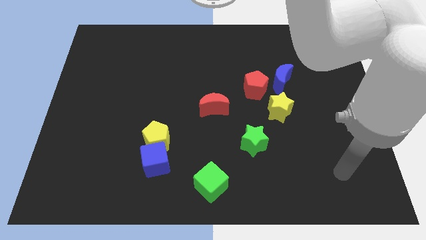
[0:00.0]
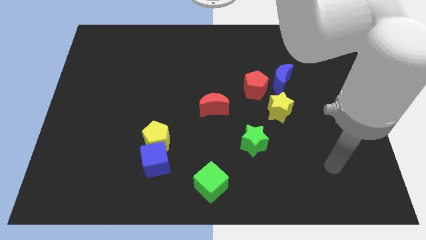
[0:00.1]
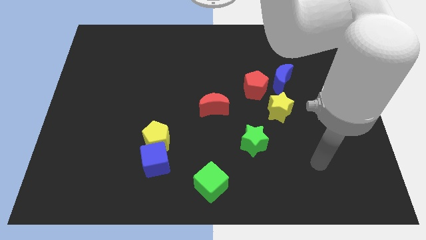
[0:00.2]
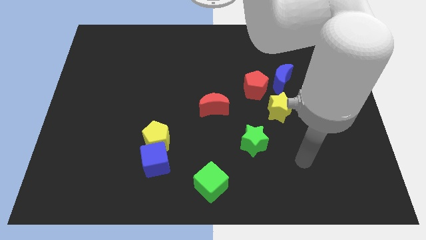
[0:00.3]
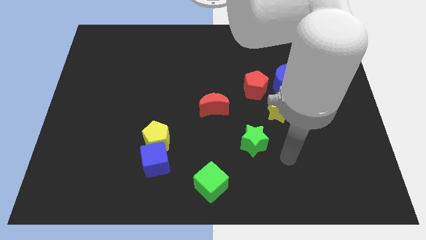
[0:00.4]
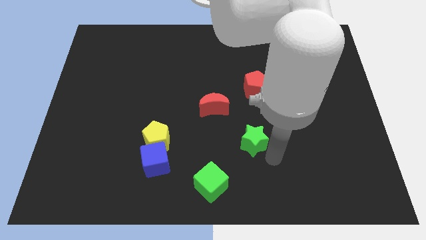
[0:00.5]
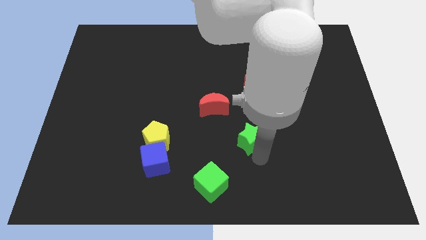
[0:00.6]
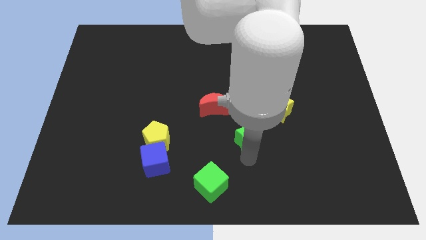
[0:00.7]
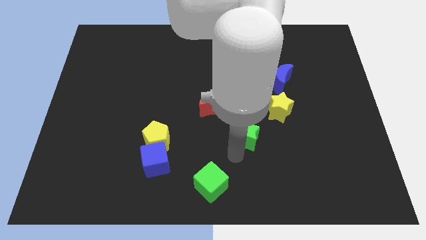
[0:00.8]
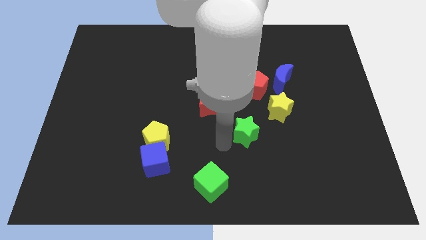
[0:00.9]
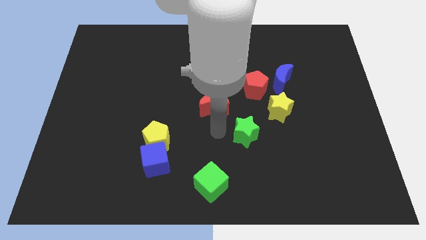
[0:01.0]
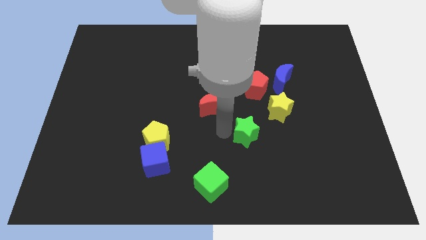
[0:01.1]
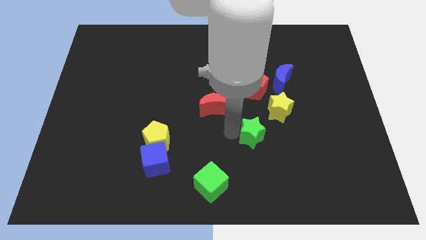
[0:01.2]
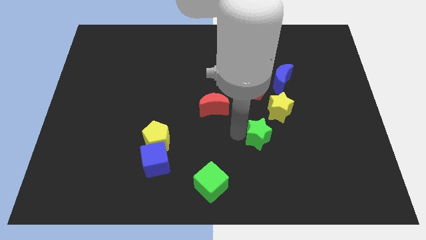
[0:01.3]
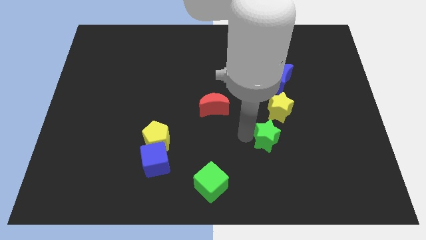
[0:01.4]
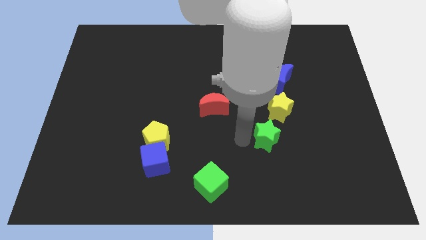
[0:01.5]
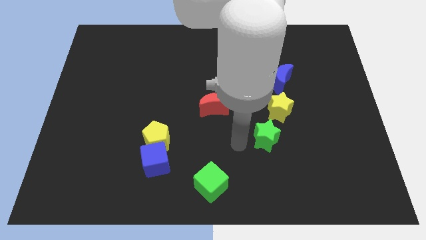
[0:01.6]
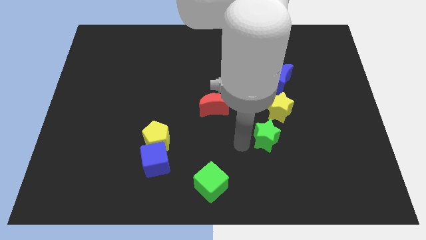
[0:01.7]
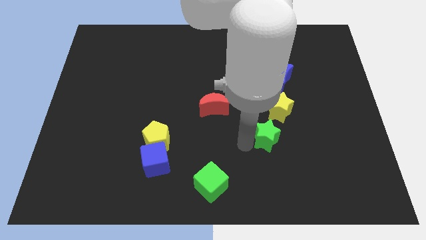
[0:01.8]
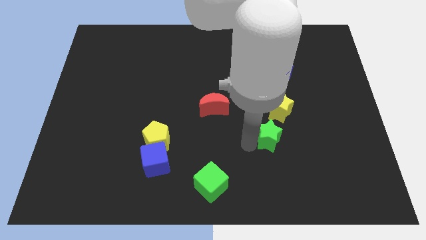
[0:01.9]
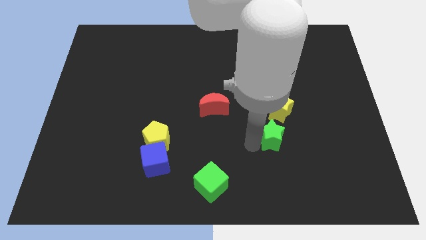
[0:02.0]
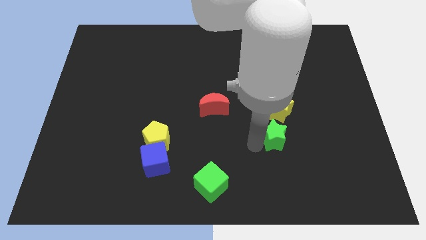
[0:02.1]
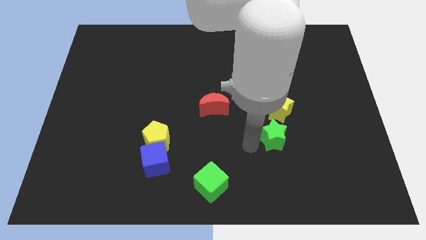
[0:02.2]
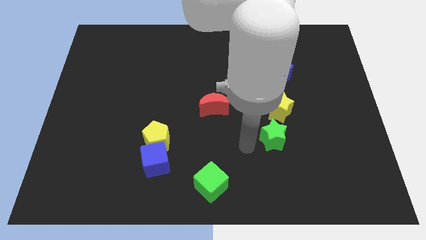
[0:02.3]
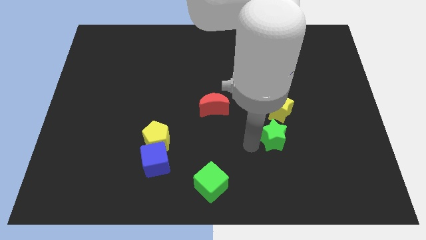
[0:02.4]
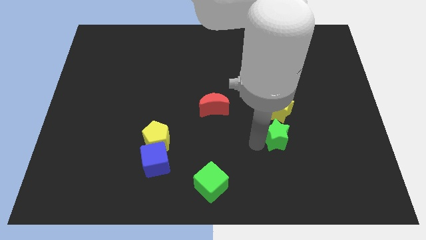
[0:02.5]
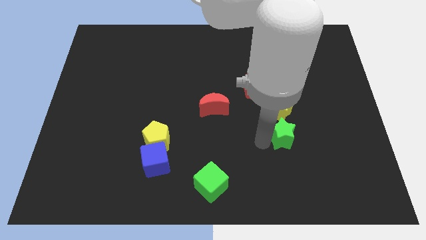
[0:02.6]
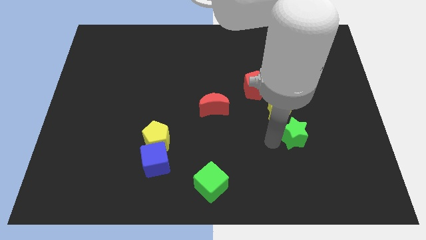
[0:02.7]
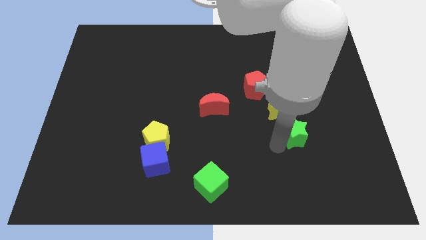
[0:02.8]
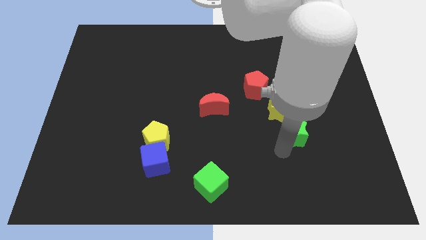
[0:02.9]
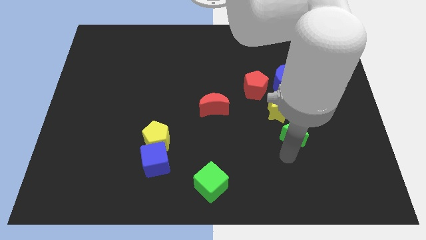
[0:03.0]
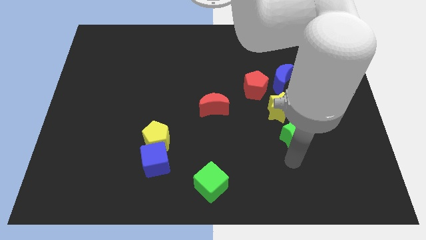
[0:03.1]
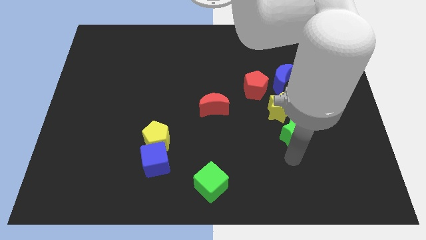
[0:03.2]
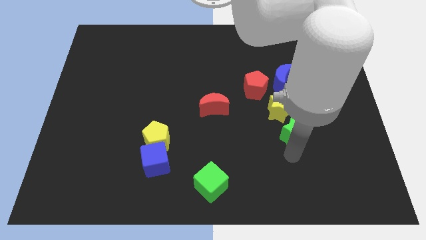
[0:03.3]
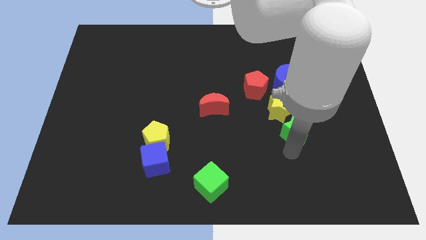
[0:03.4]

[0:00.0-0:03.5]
slide the green star slightly upwards and then right

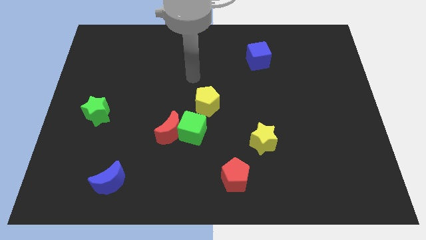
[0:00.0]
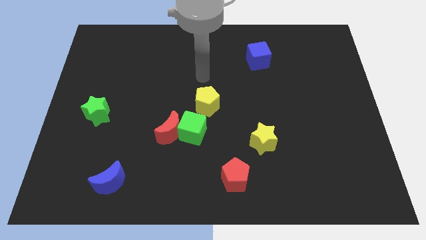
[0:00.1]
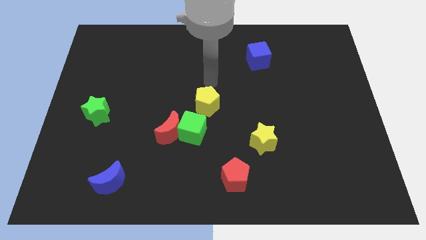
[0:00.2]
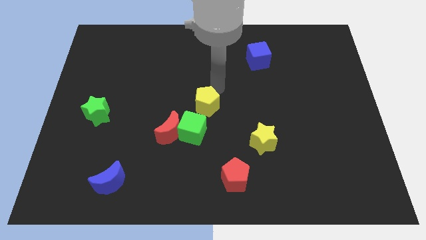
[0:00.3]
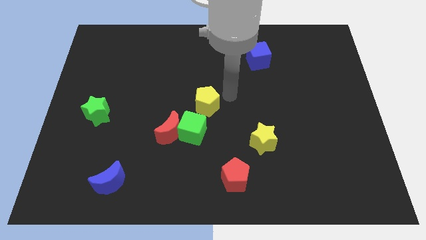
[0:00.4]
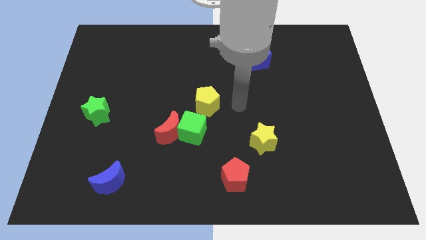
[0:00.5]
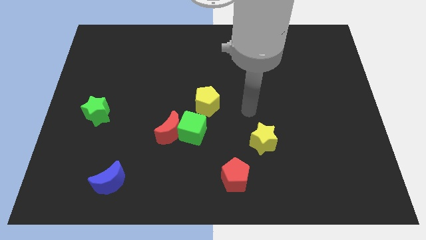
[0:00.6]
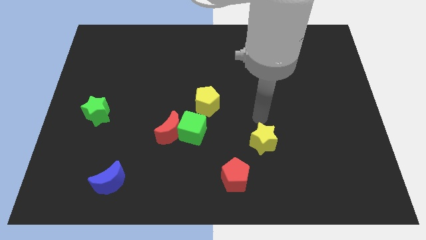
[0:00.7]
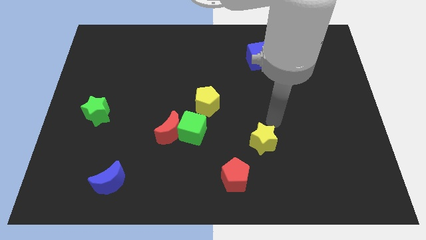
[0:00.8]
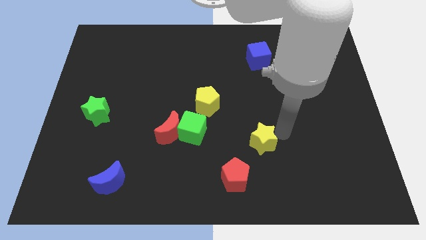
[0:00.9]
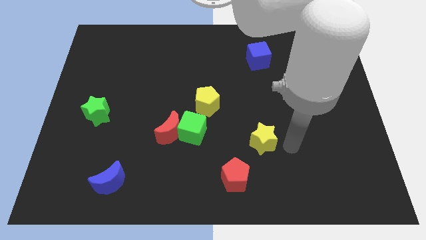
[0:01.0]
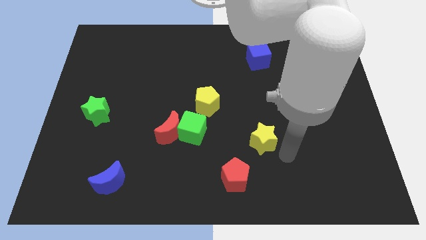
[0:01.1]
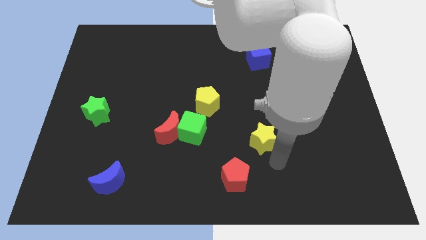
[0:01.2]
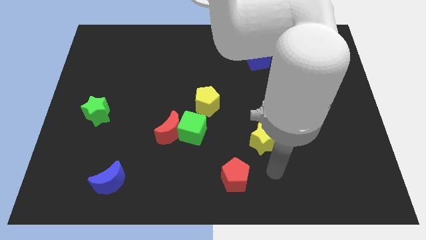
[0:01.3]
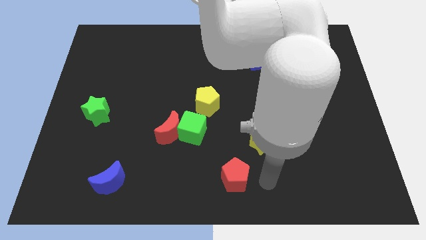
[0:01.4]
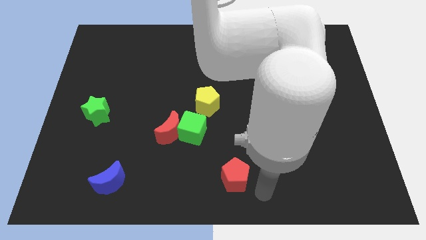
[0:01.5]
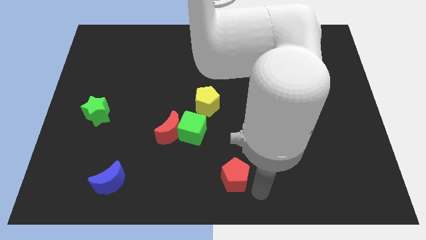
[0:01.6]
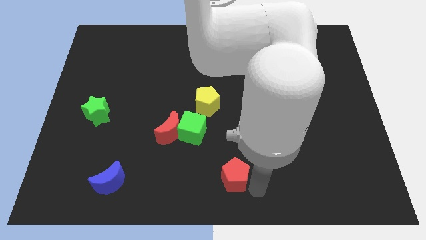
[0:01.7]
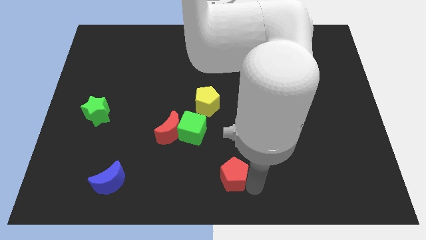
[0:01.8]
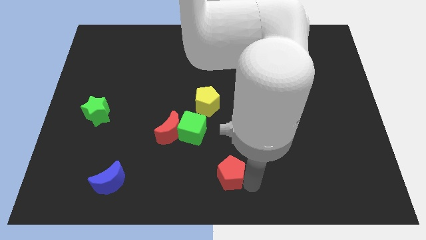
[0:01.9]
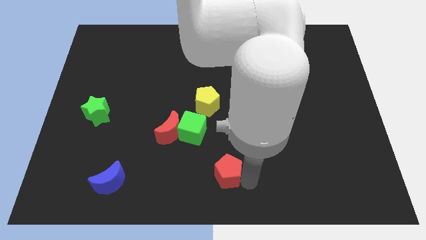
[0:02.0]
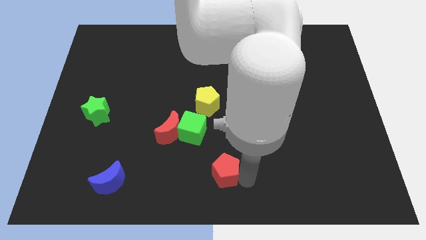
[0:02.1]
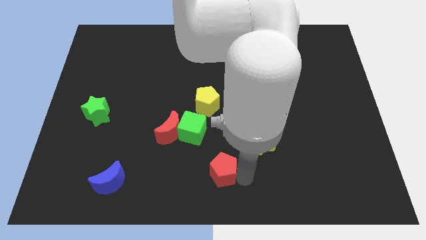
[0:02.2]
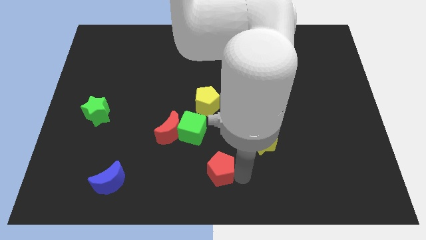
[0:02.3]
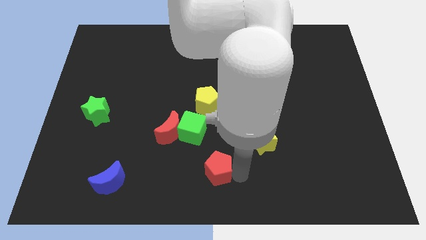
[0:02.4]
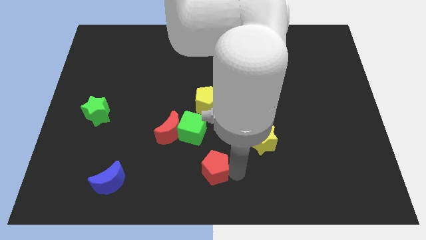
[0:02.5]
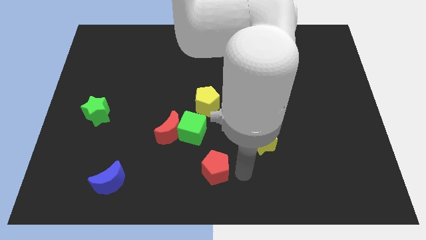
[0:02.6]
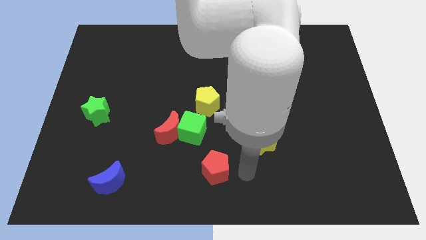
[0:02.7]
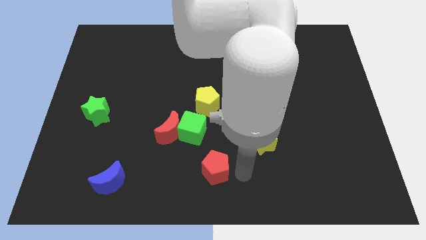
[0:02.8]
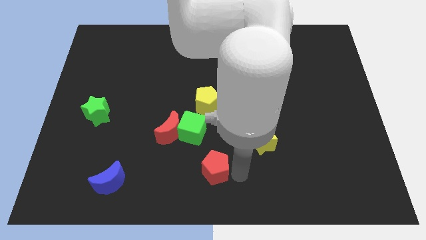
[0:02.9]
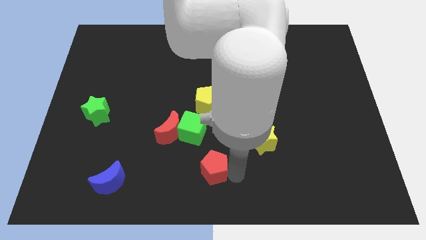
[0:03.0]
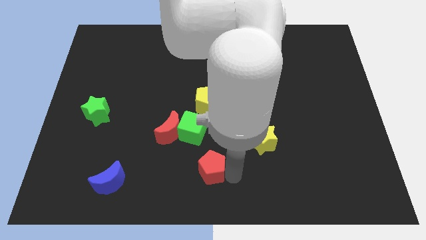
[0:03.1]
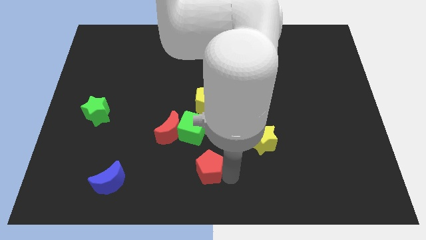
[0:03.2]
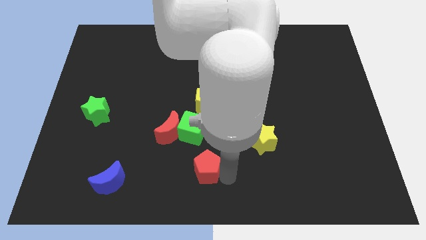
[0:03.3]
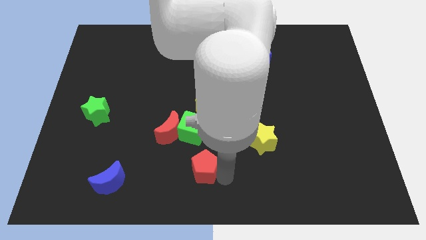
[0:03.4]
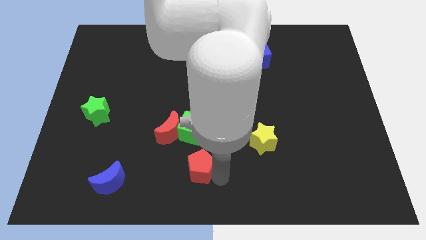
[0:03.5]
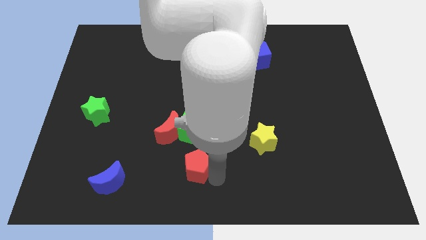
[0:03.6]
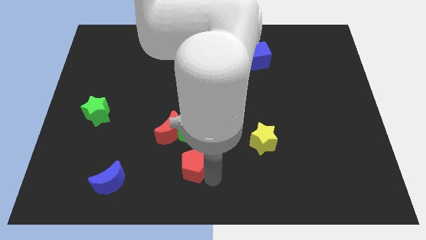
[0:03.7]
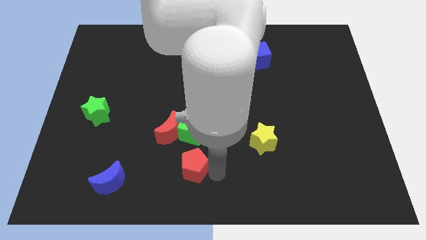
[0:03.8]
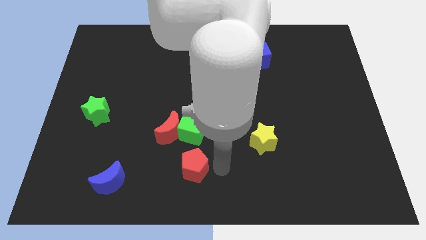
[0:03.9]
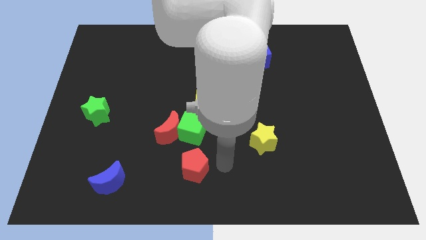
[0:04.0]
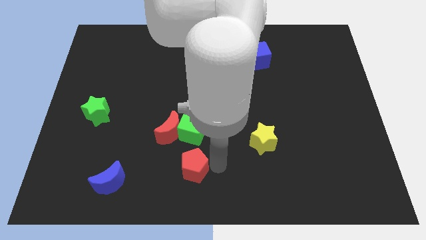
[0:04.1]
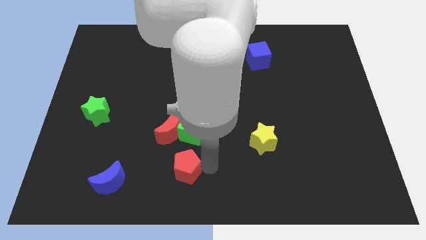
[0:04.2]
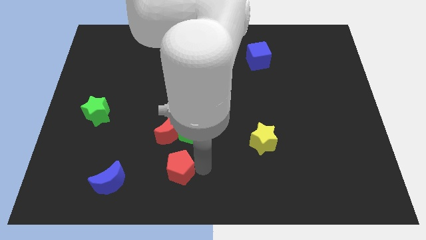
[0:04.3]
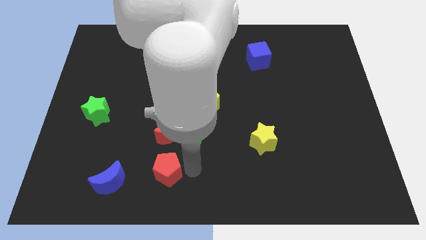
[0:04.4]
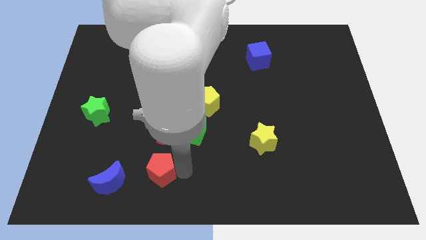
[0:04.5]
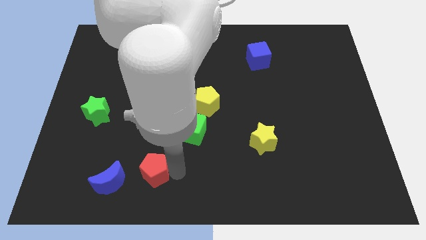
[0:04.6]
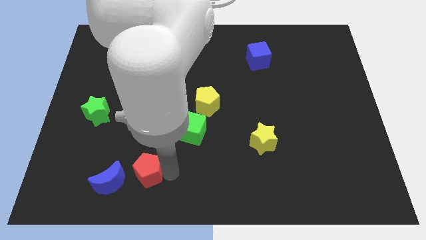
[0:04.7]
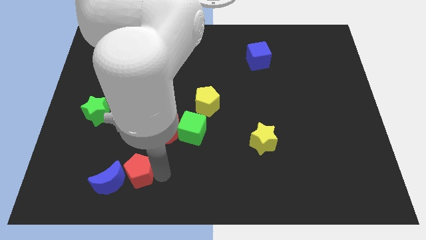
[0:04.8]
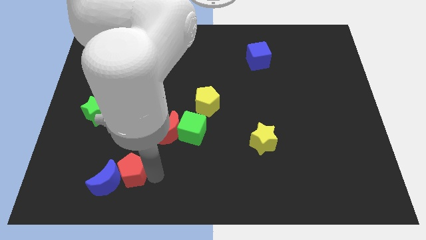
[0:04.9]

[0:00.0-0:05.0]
move the red pentagon left
